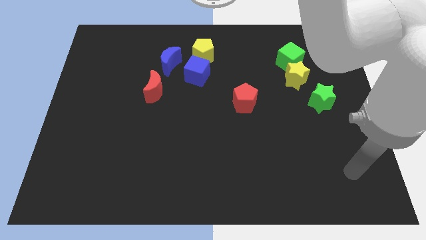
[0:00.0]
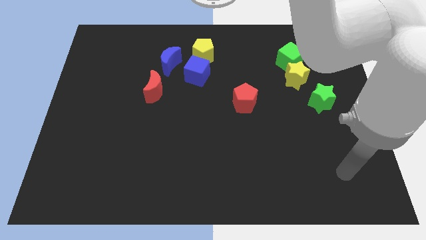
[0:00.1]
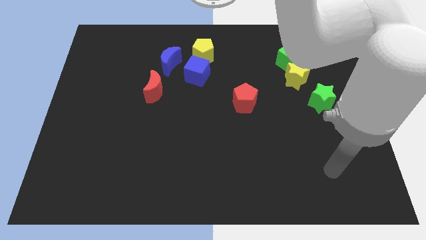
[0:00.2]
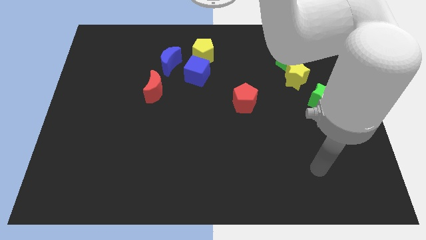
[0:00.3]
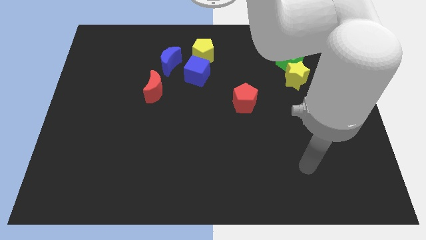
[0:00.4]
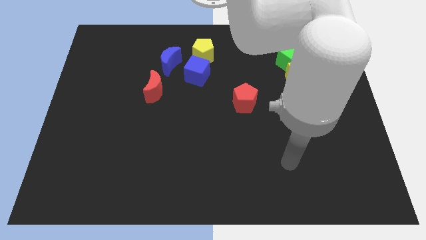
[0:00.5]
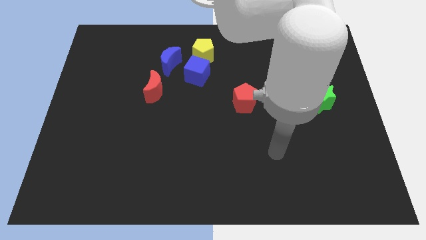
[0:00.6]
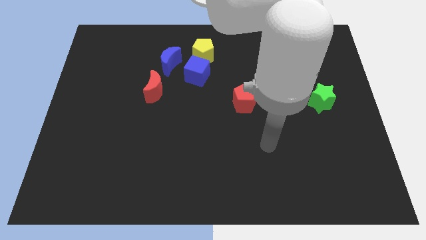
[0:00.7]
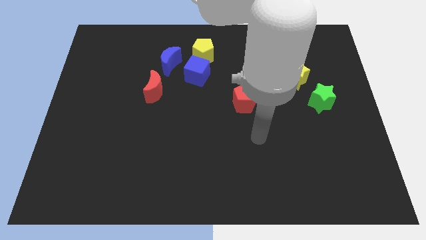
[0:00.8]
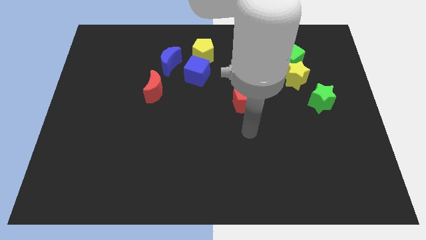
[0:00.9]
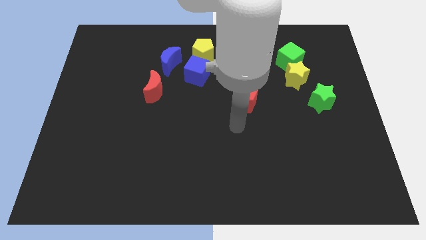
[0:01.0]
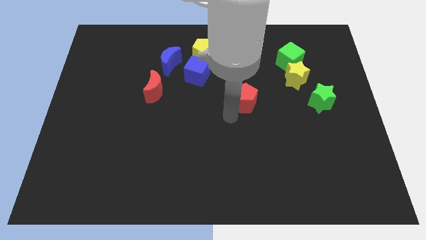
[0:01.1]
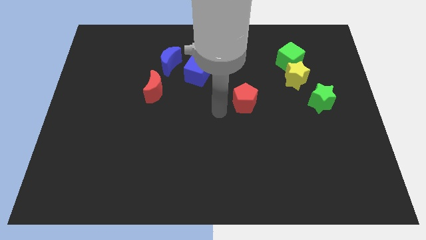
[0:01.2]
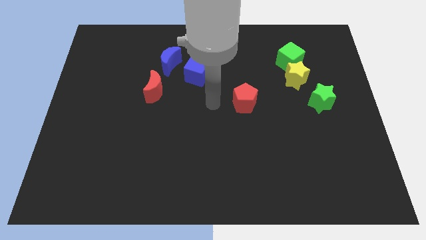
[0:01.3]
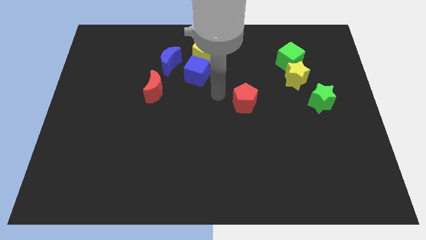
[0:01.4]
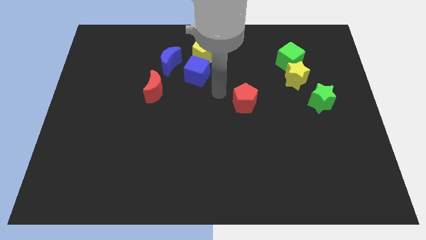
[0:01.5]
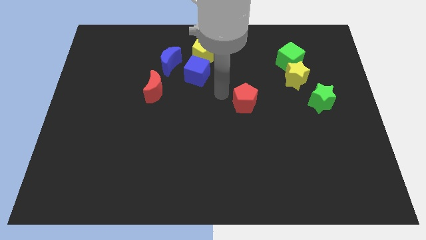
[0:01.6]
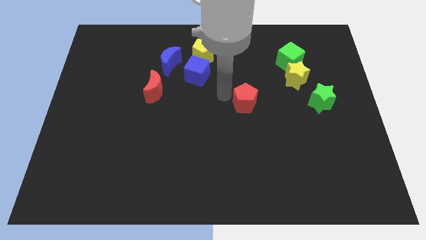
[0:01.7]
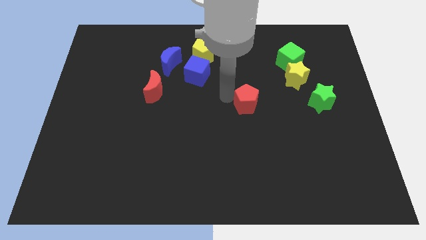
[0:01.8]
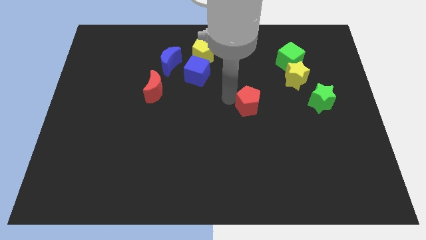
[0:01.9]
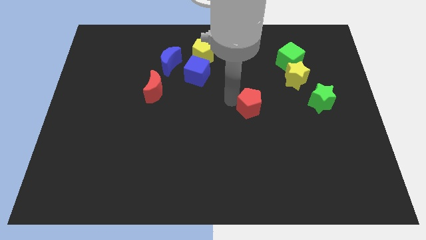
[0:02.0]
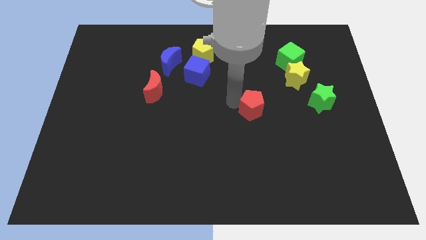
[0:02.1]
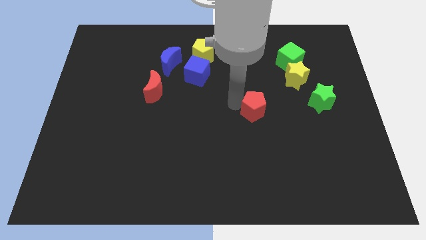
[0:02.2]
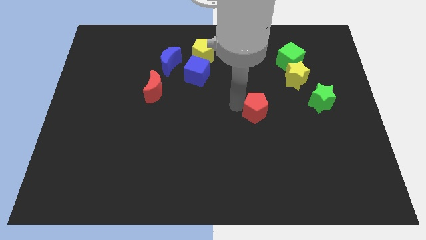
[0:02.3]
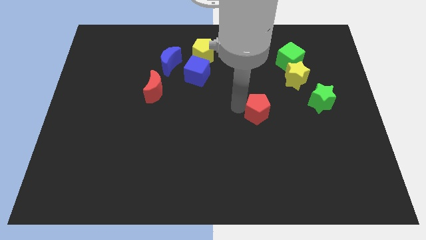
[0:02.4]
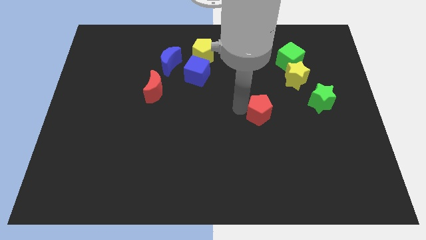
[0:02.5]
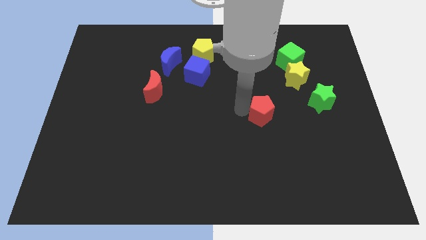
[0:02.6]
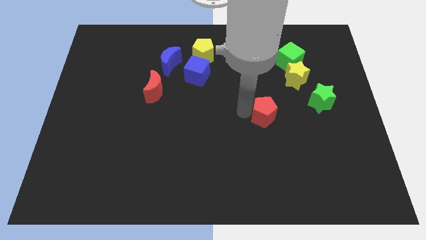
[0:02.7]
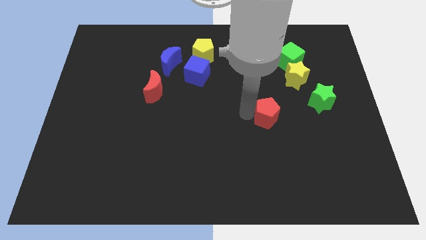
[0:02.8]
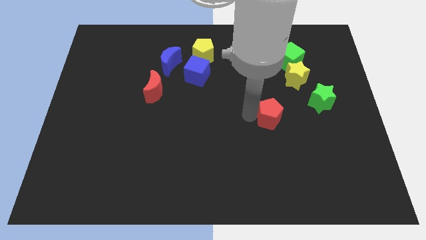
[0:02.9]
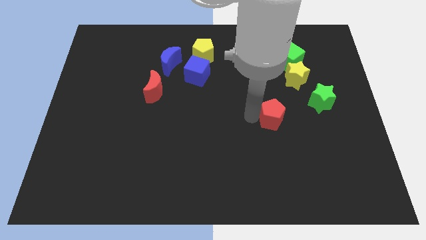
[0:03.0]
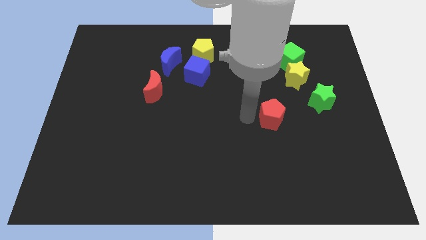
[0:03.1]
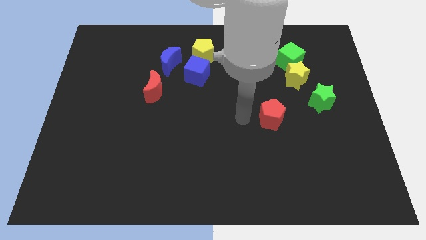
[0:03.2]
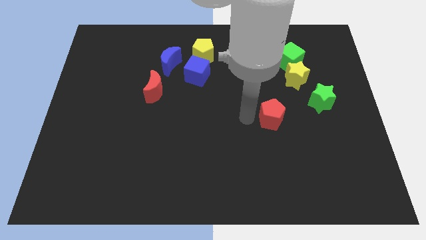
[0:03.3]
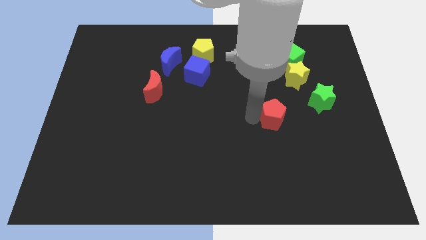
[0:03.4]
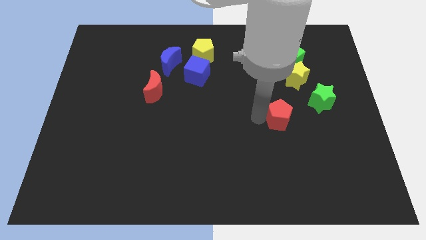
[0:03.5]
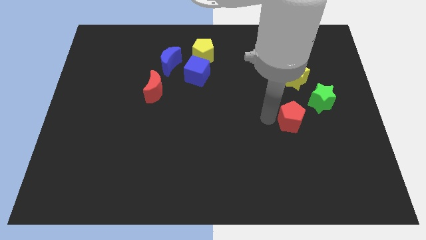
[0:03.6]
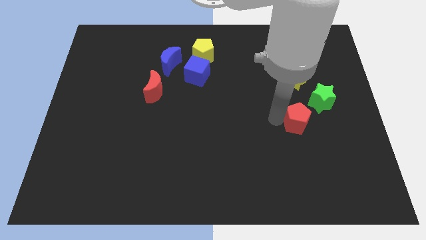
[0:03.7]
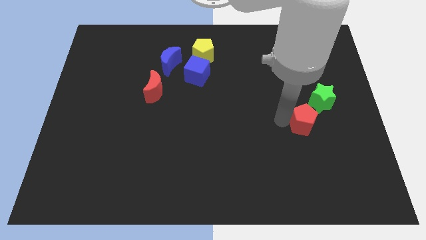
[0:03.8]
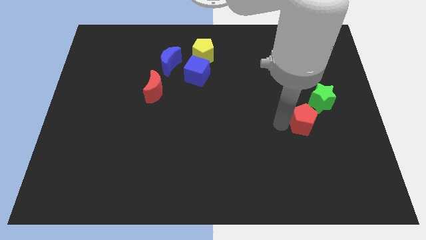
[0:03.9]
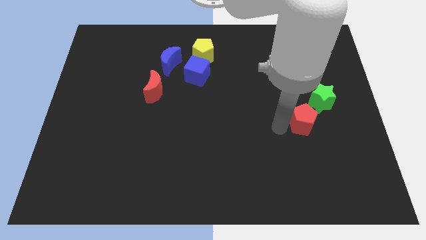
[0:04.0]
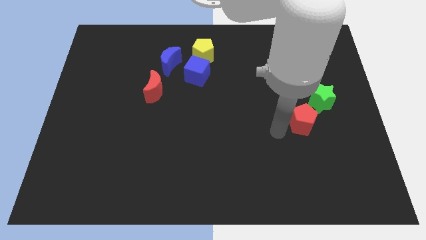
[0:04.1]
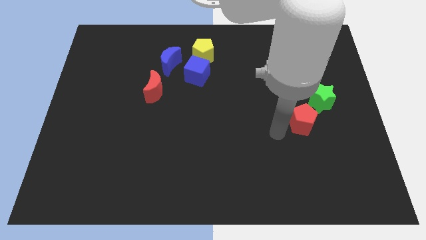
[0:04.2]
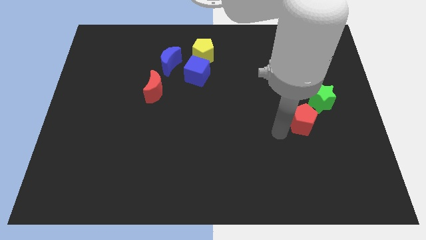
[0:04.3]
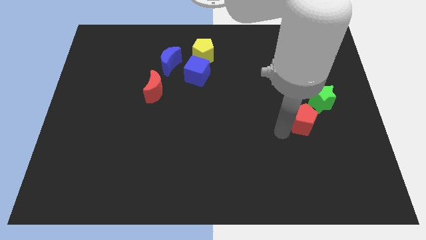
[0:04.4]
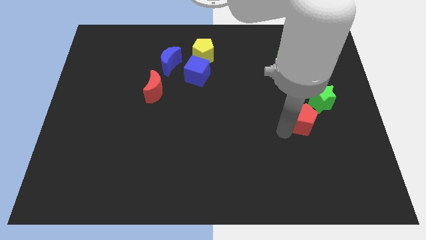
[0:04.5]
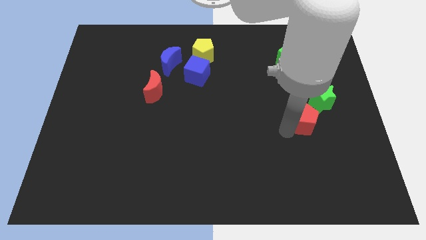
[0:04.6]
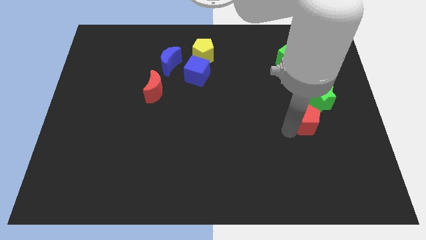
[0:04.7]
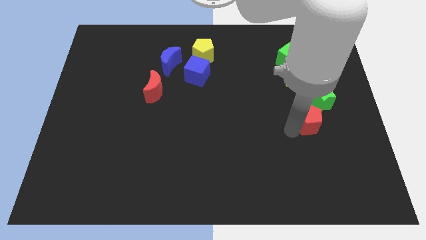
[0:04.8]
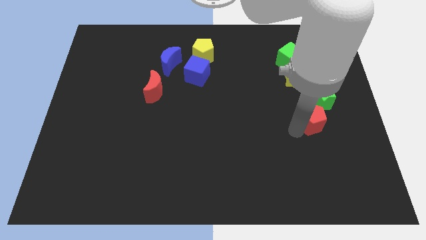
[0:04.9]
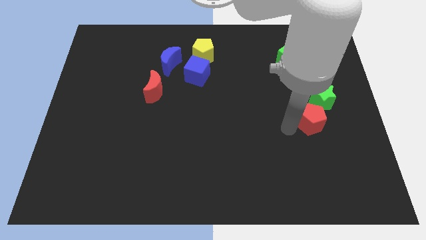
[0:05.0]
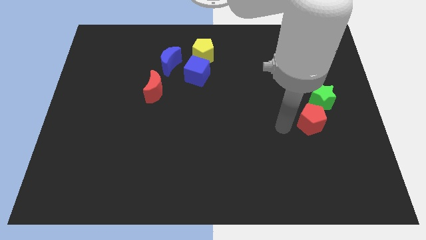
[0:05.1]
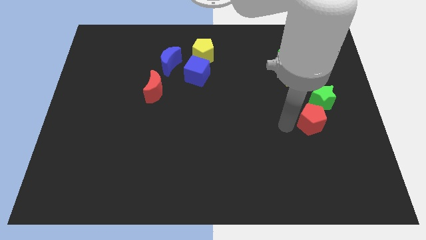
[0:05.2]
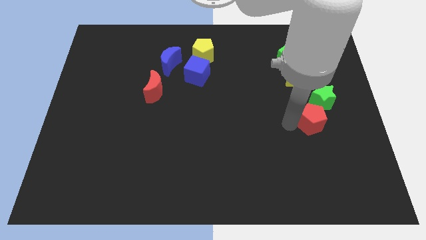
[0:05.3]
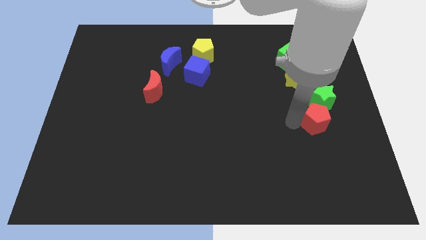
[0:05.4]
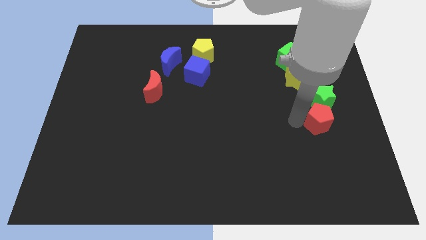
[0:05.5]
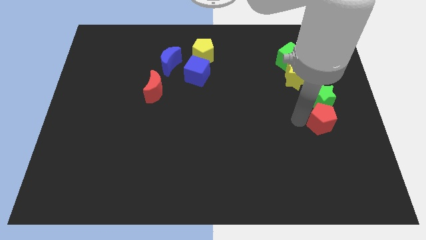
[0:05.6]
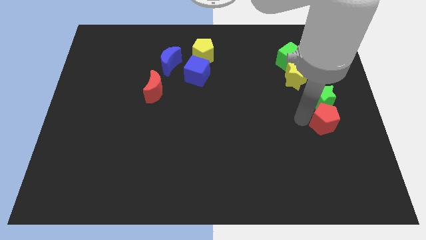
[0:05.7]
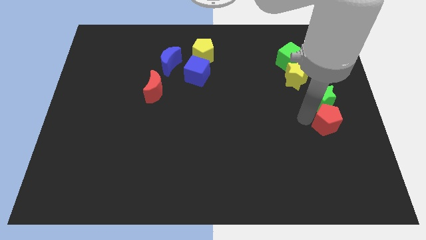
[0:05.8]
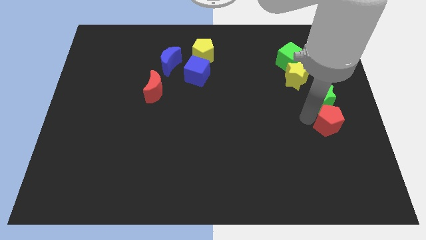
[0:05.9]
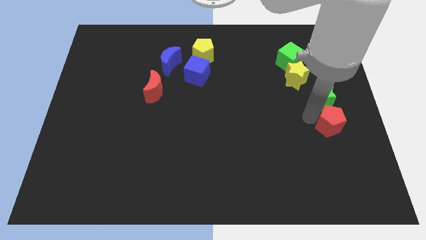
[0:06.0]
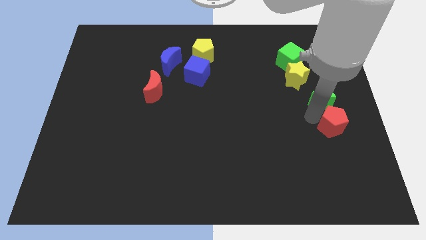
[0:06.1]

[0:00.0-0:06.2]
slide the red pentagon to the right side of the board

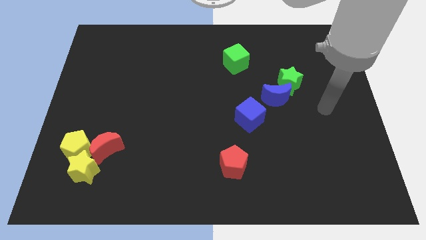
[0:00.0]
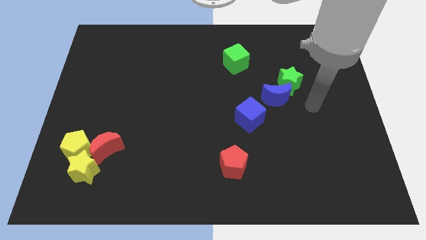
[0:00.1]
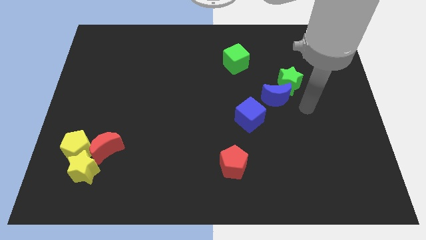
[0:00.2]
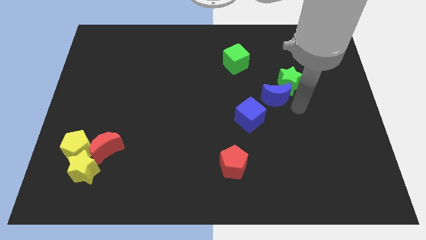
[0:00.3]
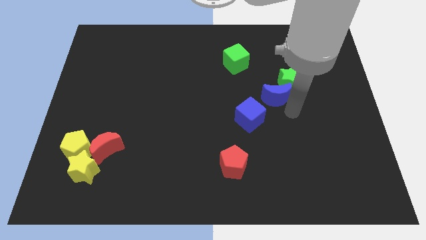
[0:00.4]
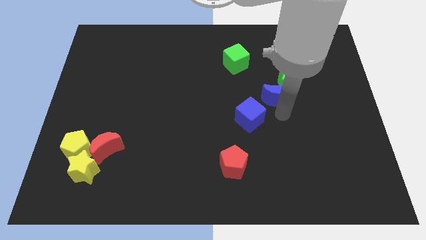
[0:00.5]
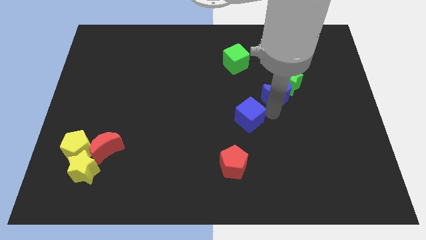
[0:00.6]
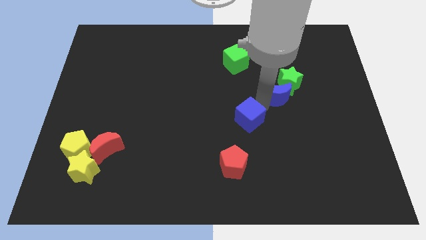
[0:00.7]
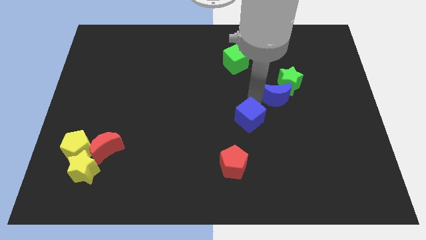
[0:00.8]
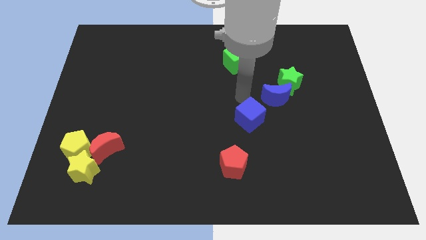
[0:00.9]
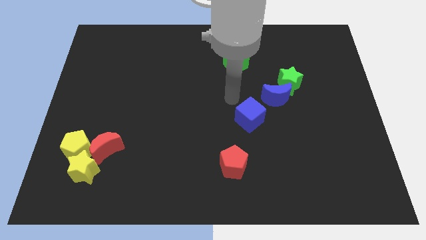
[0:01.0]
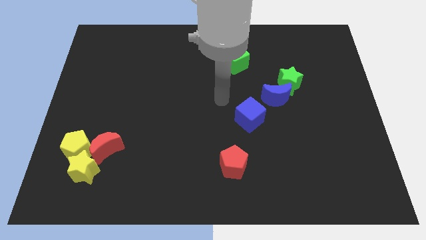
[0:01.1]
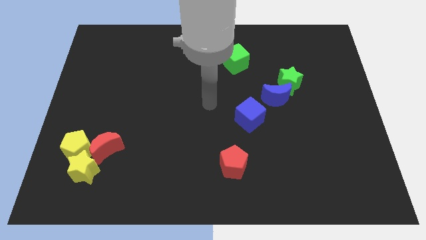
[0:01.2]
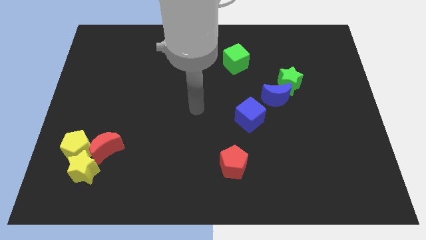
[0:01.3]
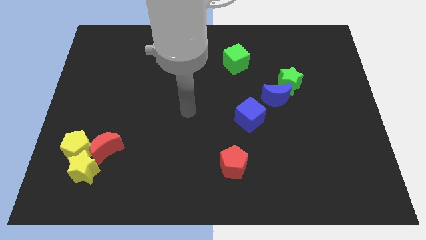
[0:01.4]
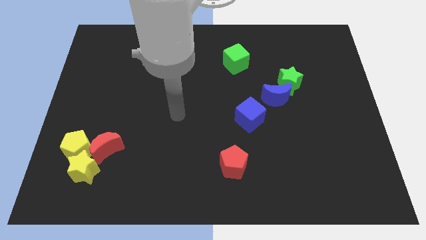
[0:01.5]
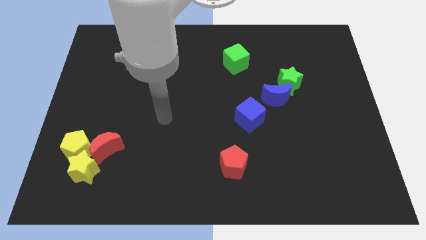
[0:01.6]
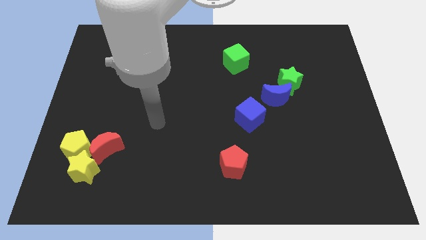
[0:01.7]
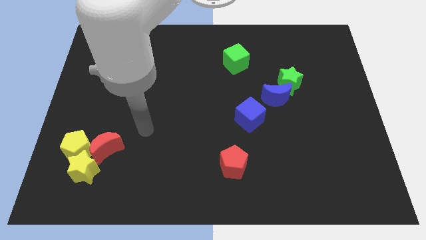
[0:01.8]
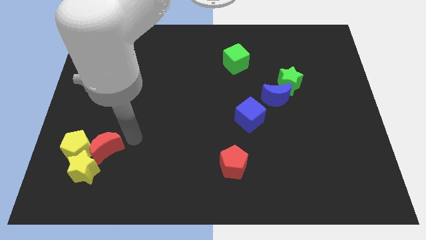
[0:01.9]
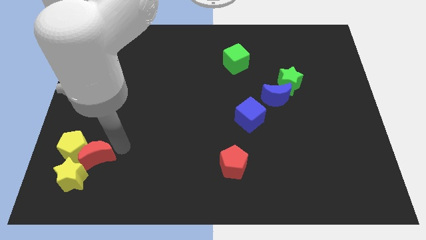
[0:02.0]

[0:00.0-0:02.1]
move the yellow star to the bottom left of the board
